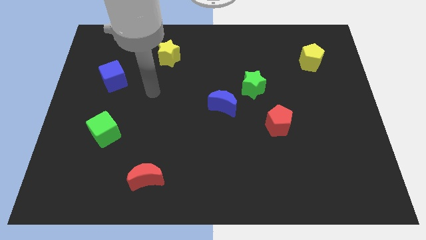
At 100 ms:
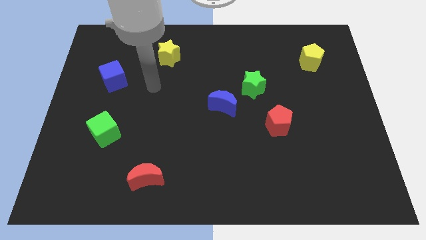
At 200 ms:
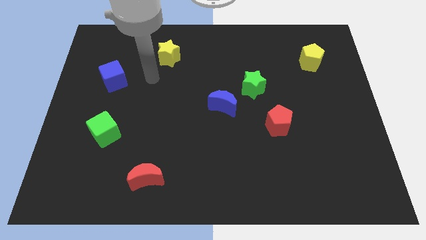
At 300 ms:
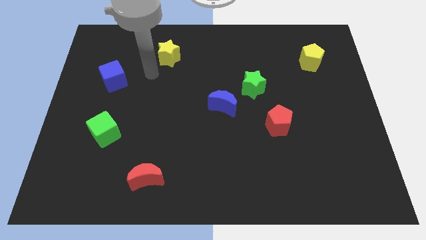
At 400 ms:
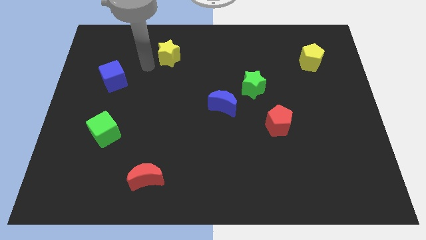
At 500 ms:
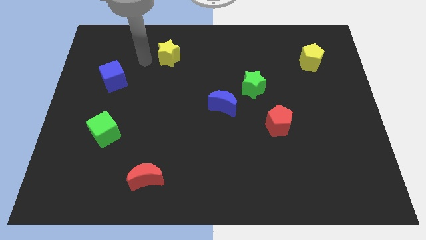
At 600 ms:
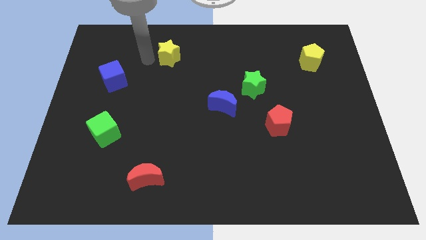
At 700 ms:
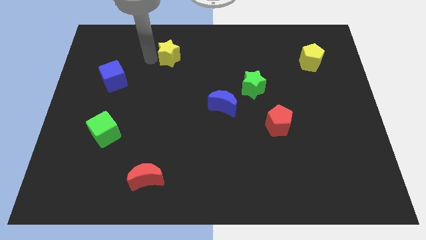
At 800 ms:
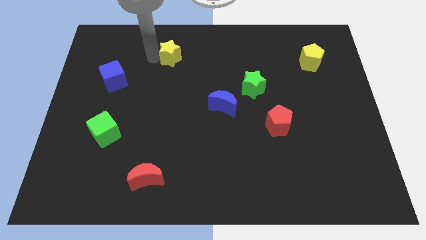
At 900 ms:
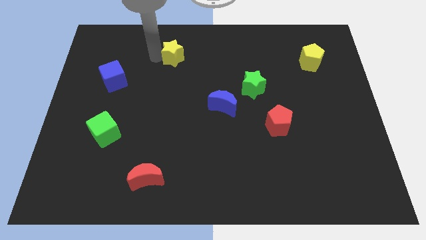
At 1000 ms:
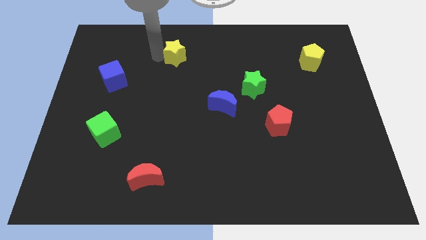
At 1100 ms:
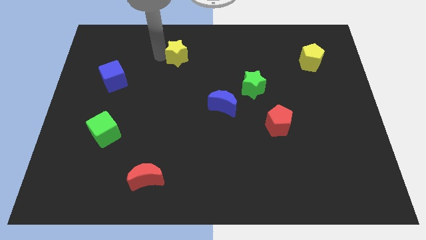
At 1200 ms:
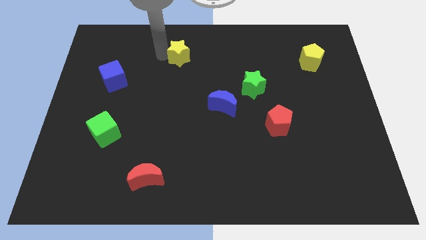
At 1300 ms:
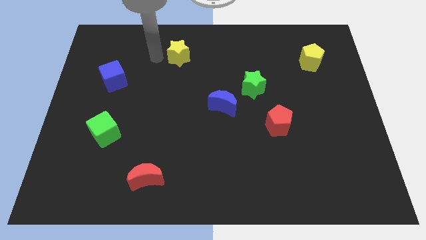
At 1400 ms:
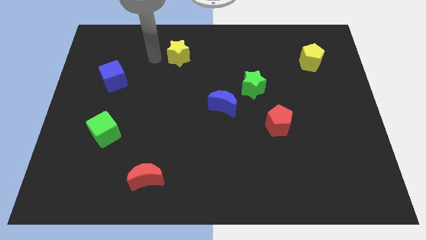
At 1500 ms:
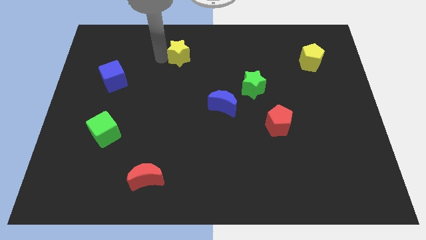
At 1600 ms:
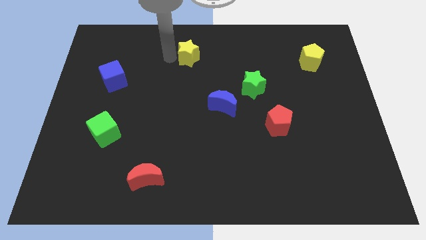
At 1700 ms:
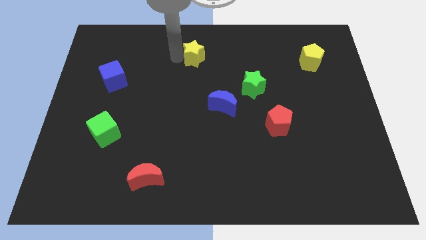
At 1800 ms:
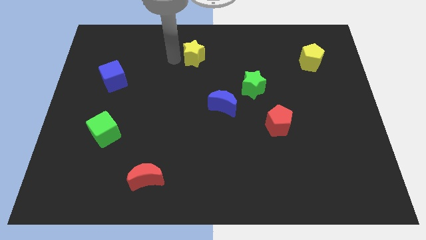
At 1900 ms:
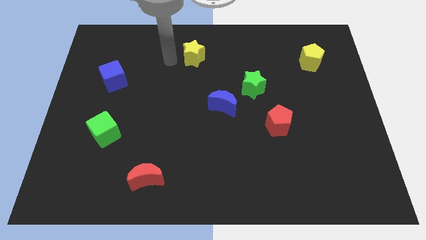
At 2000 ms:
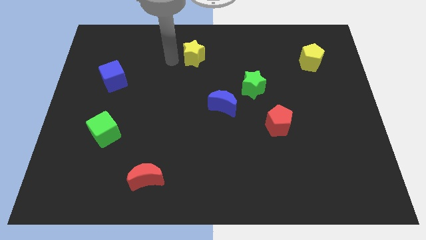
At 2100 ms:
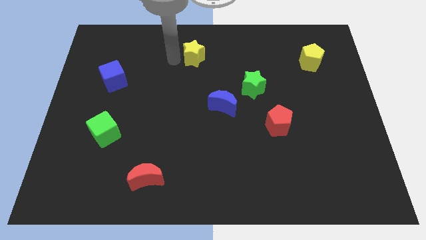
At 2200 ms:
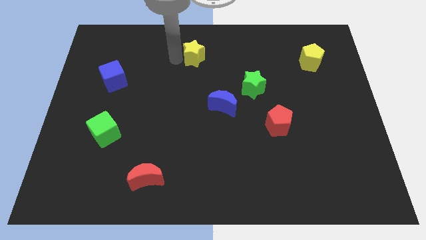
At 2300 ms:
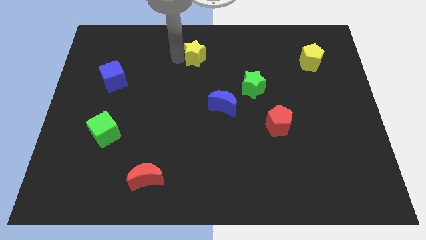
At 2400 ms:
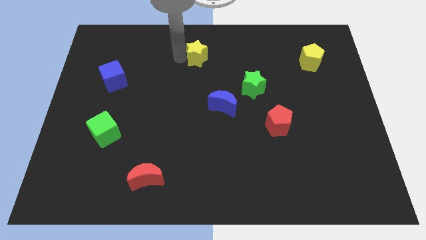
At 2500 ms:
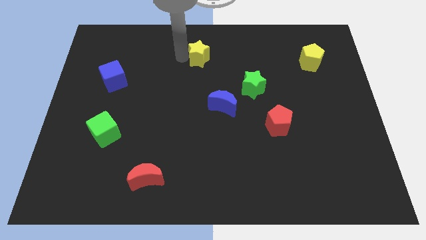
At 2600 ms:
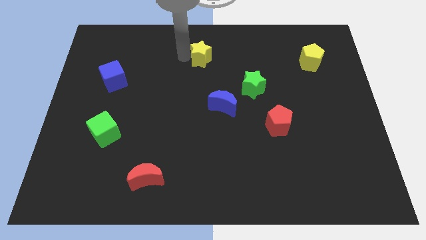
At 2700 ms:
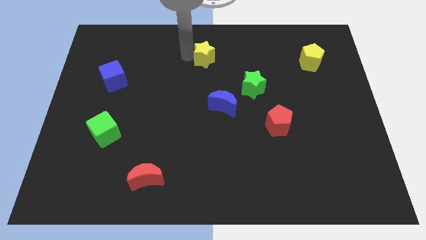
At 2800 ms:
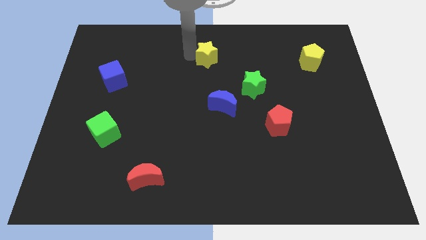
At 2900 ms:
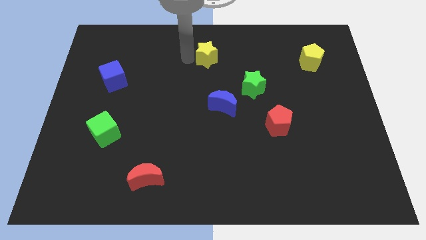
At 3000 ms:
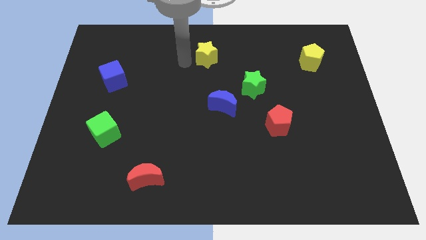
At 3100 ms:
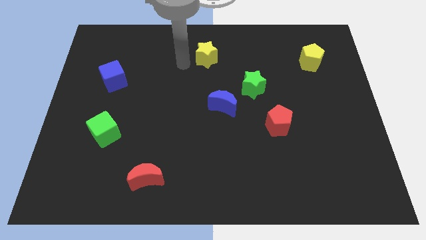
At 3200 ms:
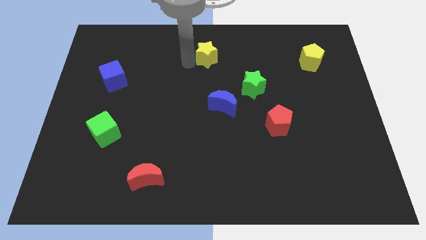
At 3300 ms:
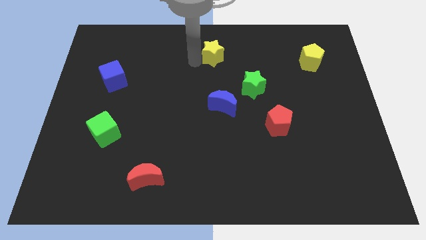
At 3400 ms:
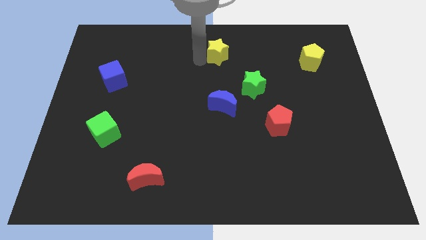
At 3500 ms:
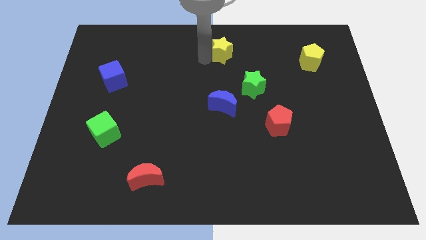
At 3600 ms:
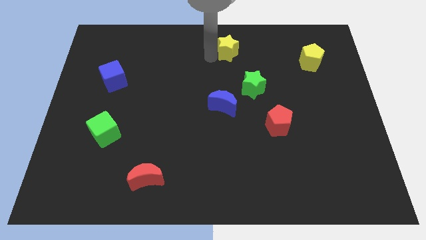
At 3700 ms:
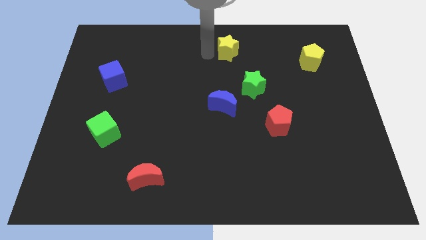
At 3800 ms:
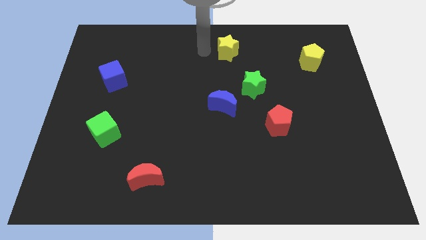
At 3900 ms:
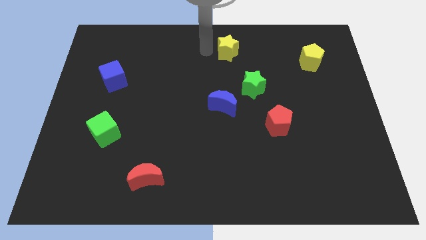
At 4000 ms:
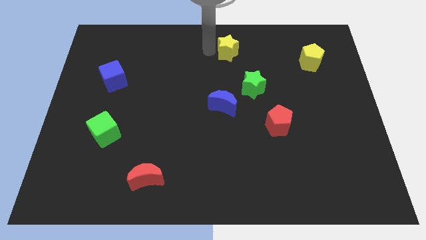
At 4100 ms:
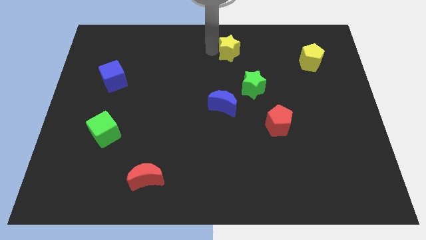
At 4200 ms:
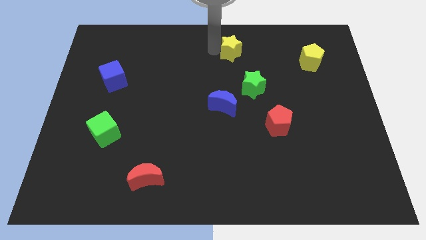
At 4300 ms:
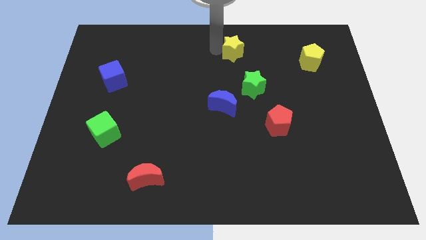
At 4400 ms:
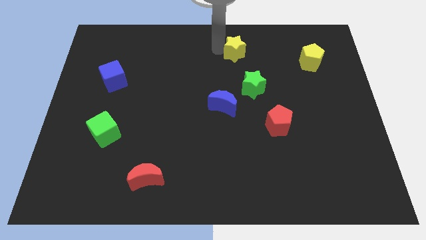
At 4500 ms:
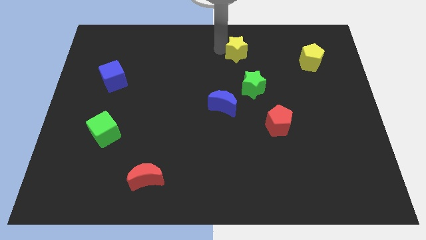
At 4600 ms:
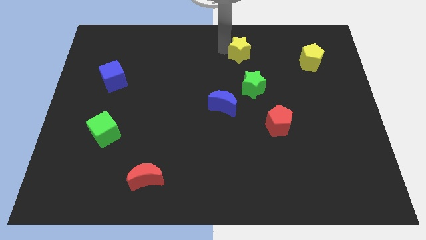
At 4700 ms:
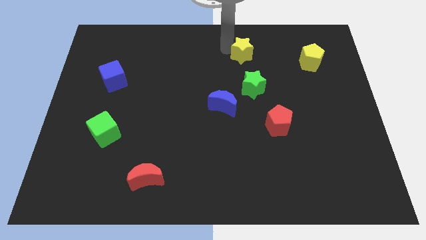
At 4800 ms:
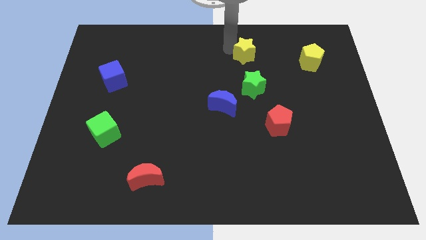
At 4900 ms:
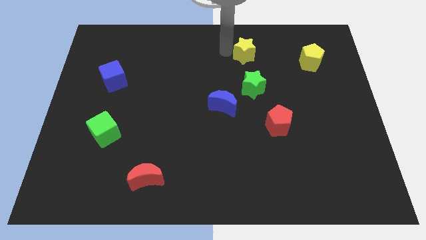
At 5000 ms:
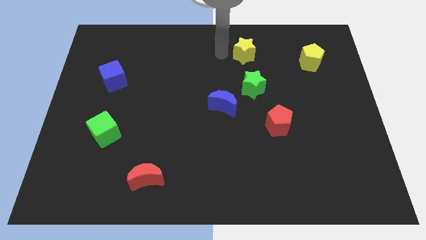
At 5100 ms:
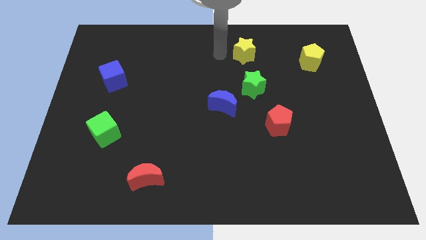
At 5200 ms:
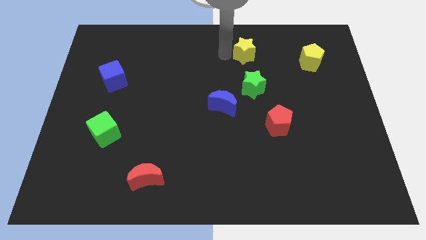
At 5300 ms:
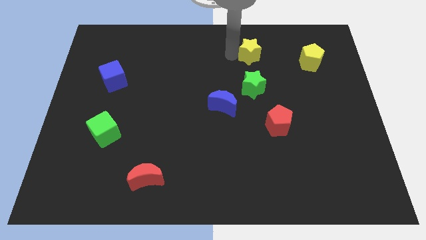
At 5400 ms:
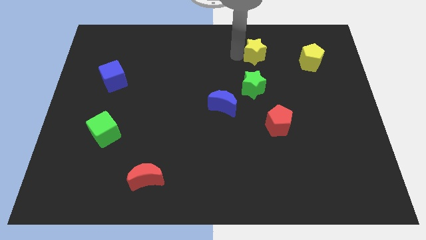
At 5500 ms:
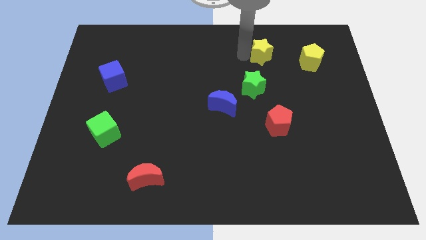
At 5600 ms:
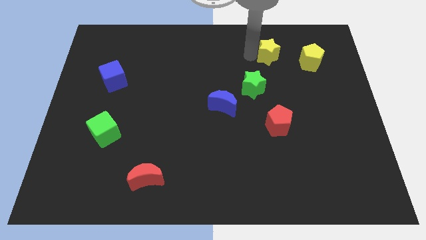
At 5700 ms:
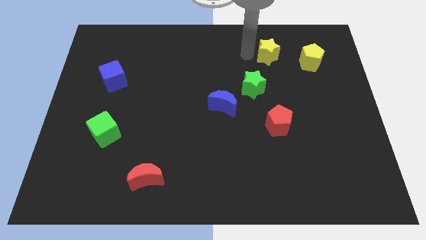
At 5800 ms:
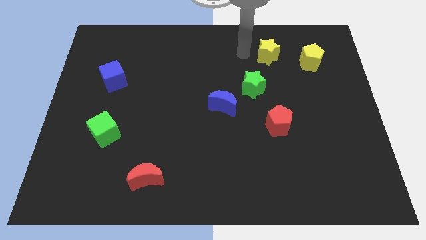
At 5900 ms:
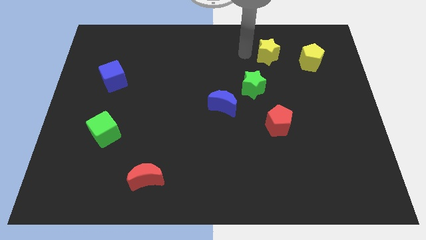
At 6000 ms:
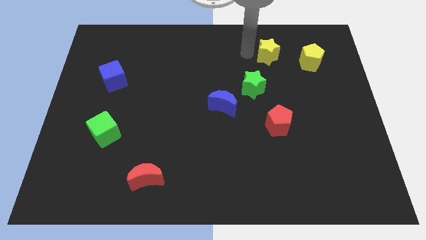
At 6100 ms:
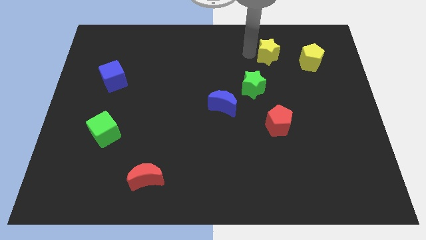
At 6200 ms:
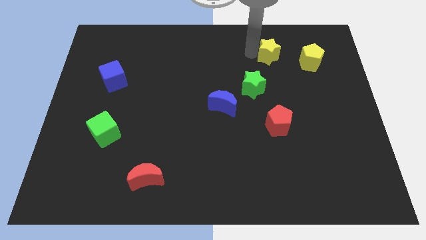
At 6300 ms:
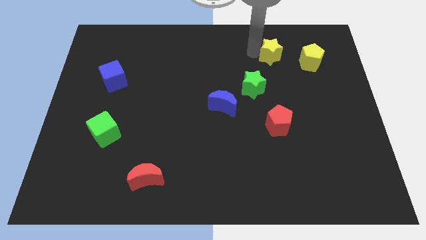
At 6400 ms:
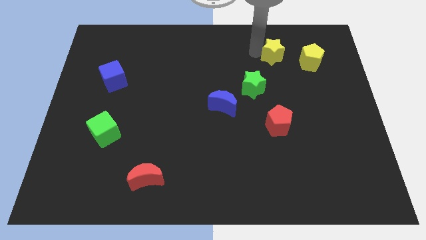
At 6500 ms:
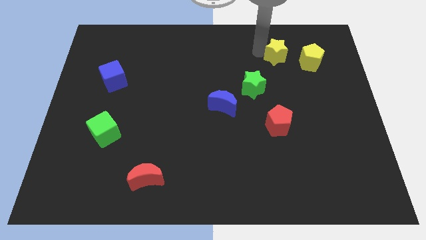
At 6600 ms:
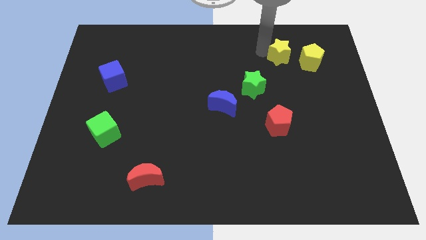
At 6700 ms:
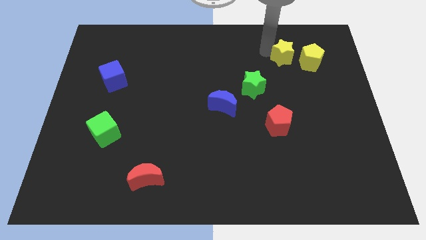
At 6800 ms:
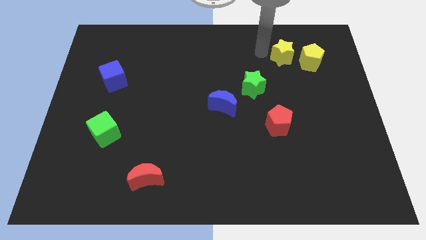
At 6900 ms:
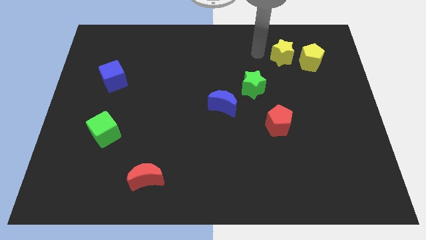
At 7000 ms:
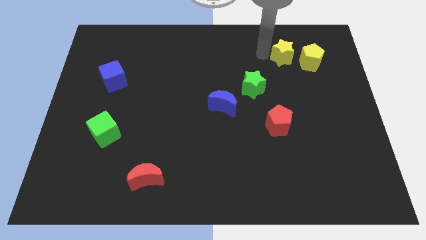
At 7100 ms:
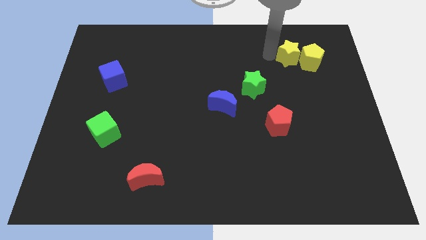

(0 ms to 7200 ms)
put the yellow star towards the yellow pentagon
